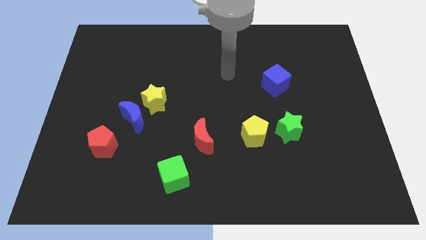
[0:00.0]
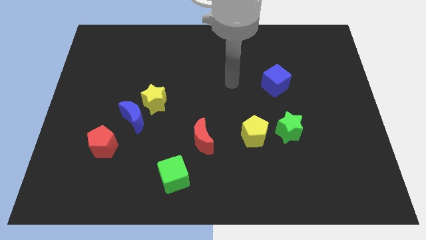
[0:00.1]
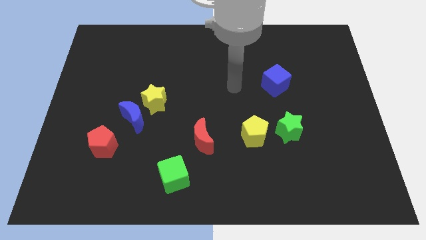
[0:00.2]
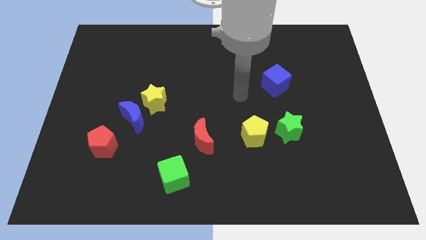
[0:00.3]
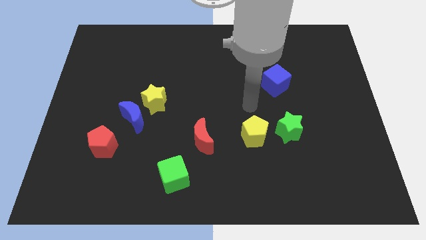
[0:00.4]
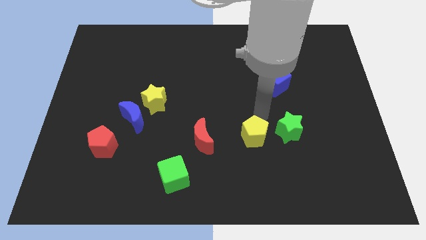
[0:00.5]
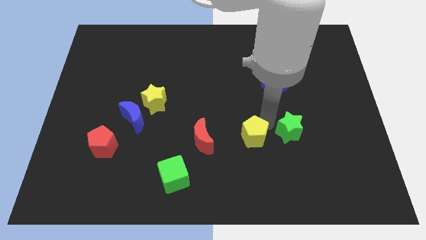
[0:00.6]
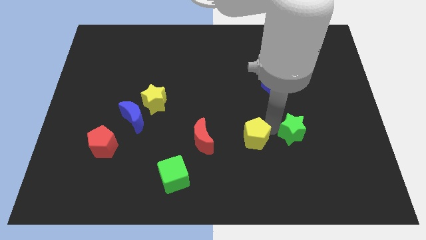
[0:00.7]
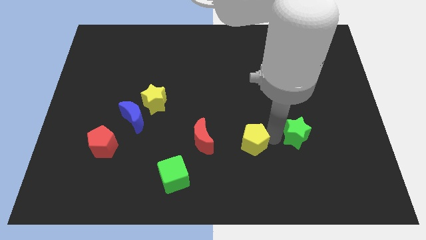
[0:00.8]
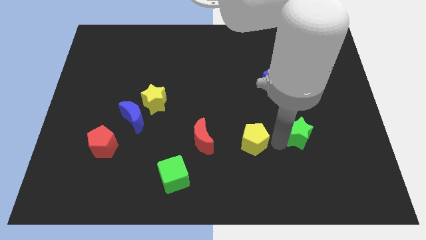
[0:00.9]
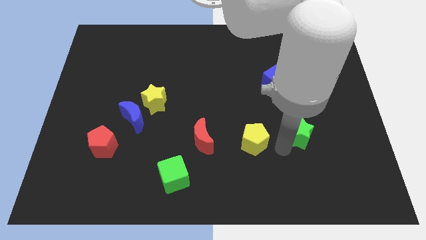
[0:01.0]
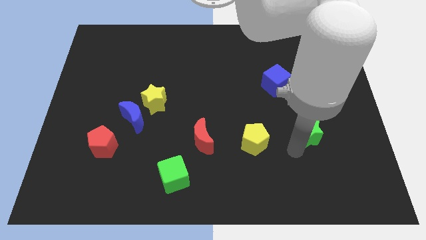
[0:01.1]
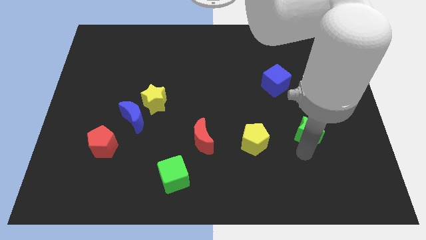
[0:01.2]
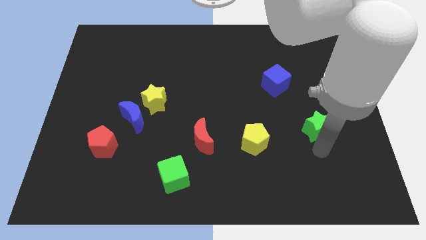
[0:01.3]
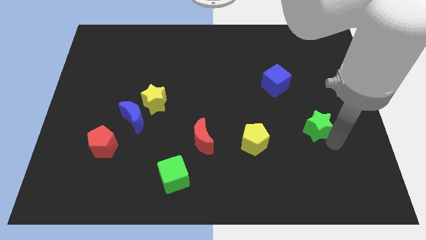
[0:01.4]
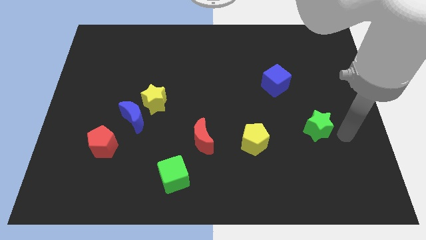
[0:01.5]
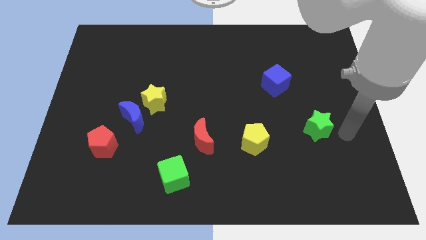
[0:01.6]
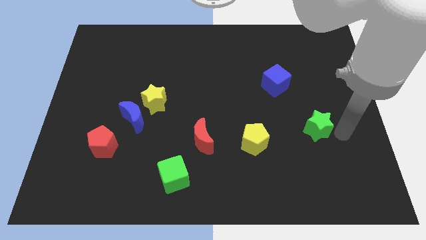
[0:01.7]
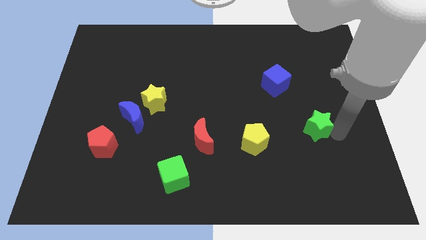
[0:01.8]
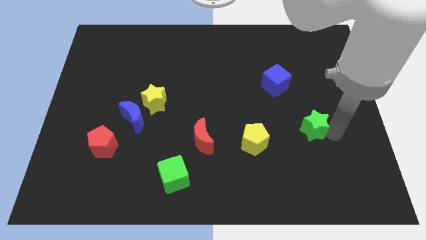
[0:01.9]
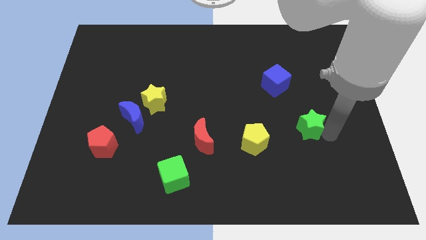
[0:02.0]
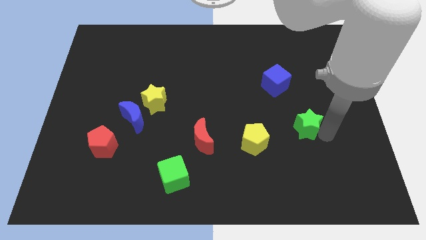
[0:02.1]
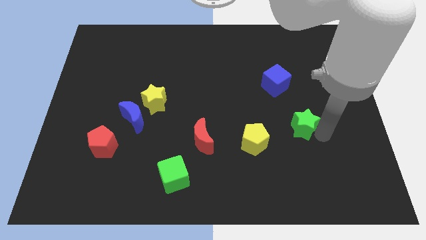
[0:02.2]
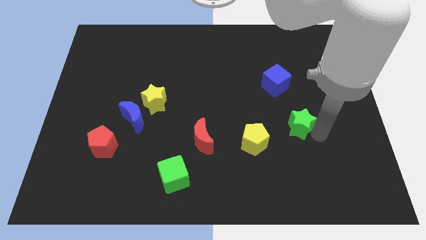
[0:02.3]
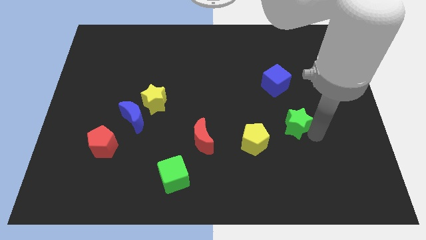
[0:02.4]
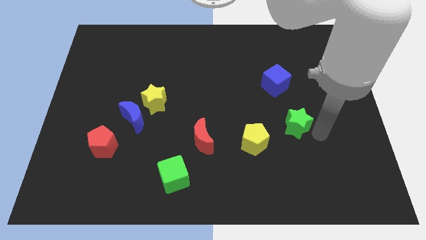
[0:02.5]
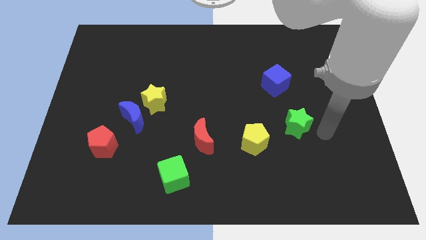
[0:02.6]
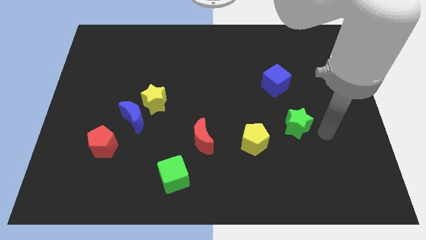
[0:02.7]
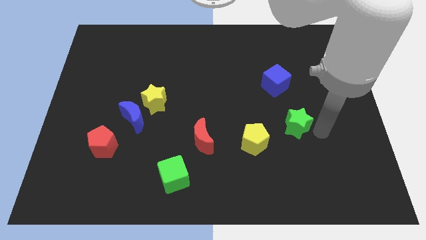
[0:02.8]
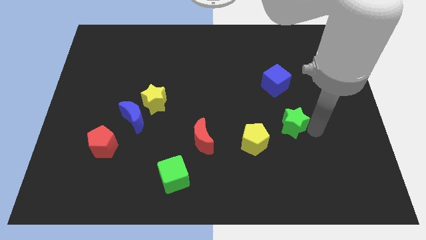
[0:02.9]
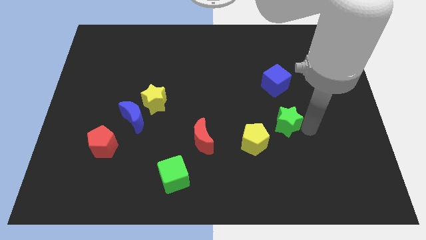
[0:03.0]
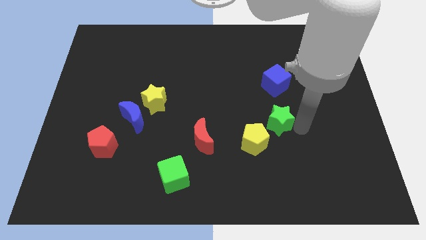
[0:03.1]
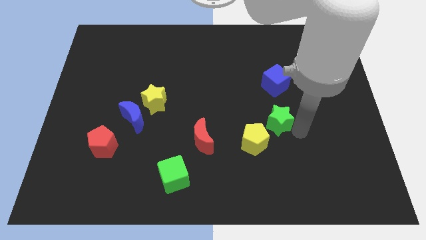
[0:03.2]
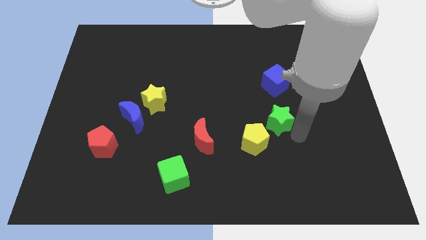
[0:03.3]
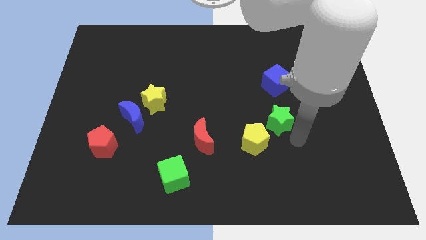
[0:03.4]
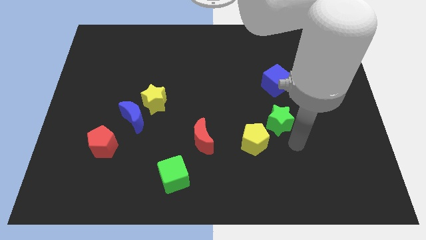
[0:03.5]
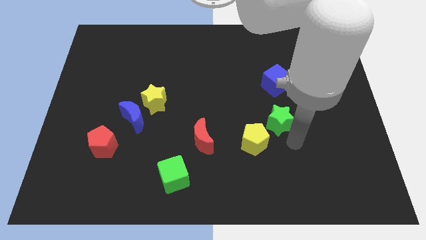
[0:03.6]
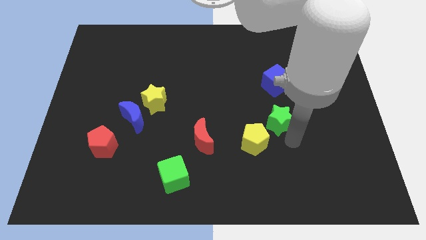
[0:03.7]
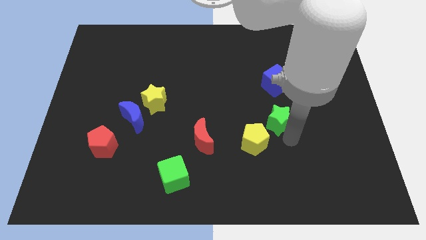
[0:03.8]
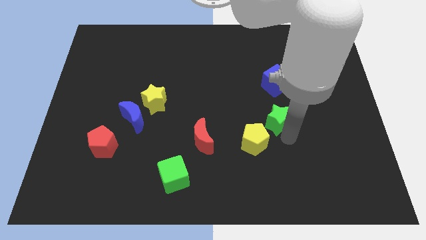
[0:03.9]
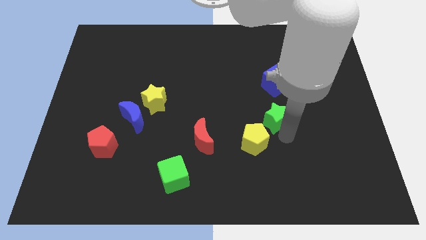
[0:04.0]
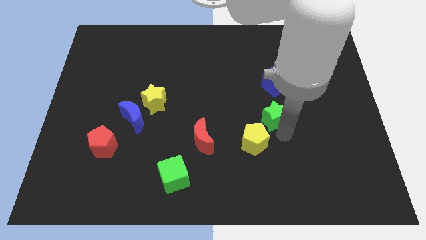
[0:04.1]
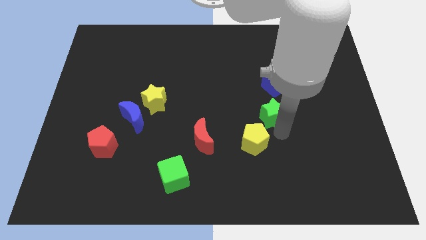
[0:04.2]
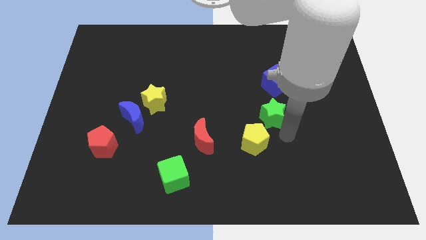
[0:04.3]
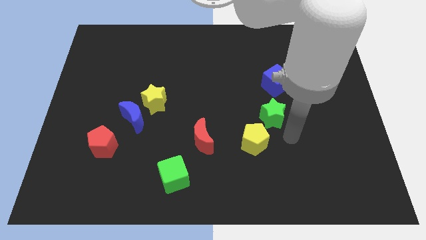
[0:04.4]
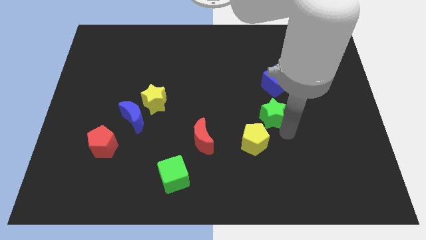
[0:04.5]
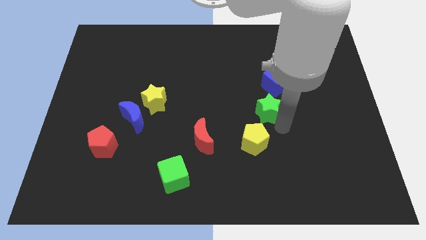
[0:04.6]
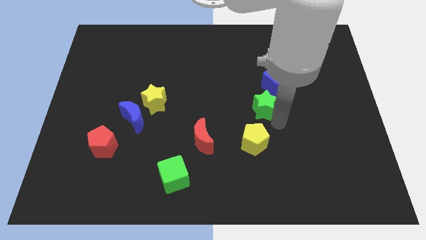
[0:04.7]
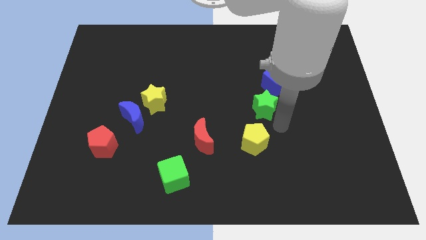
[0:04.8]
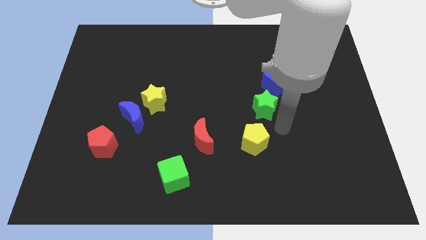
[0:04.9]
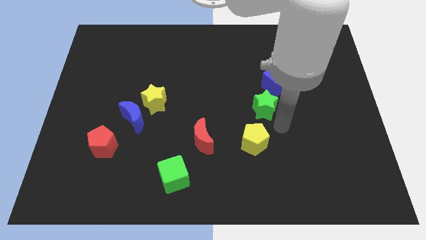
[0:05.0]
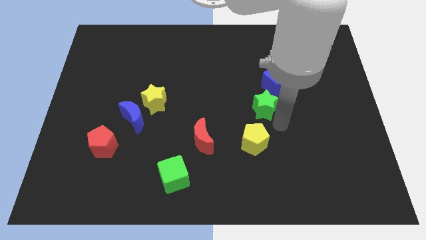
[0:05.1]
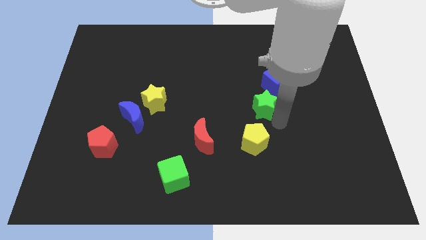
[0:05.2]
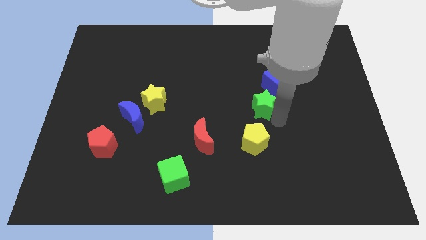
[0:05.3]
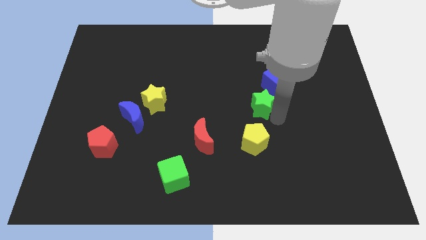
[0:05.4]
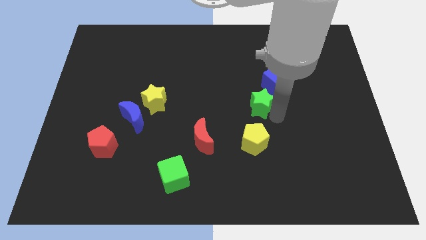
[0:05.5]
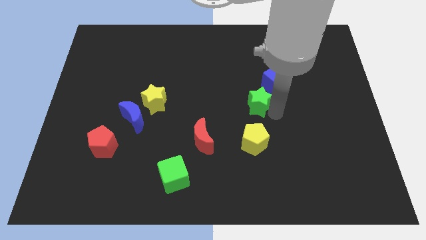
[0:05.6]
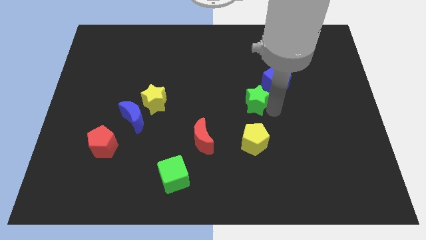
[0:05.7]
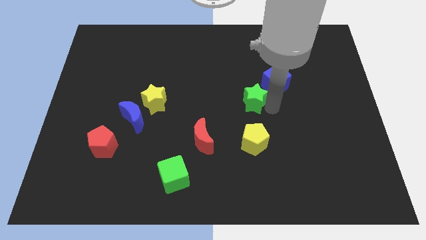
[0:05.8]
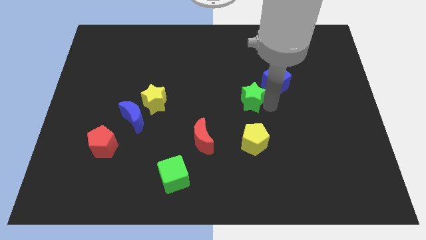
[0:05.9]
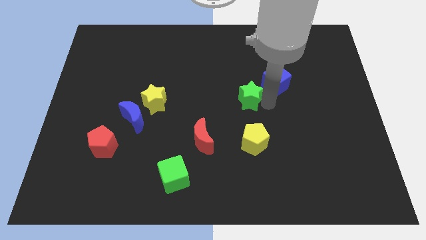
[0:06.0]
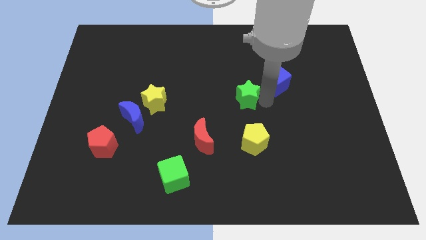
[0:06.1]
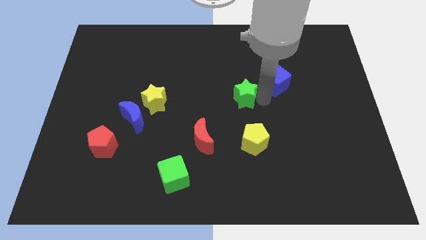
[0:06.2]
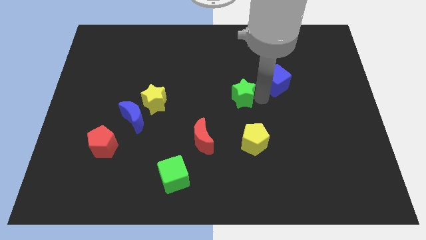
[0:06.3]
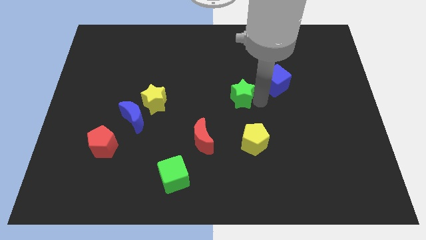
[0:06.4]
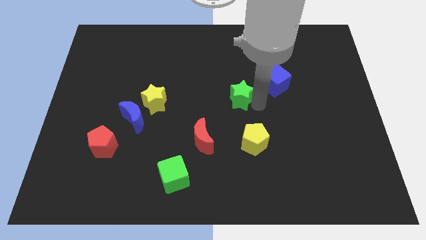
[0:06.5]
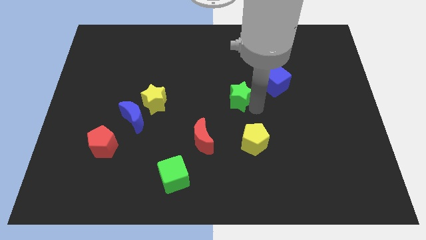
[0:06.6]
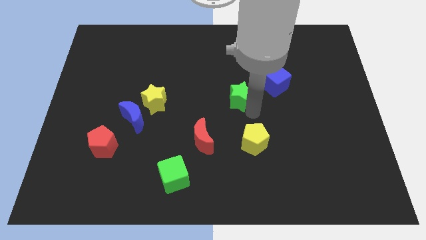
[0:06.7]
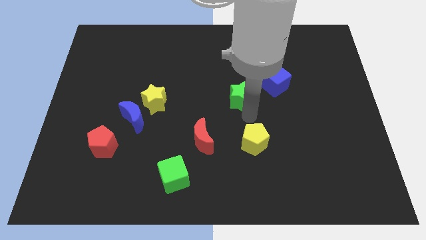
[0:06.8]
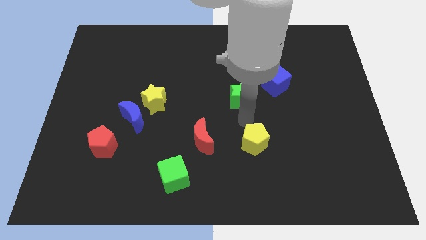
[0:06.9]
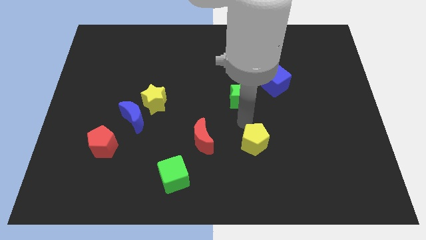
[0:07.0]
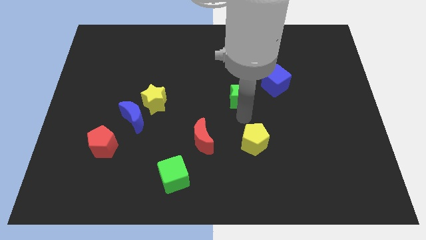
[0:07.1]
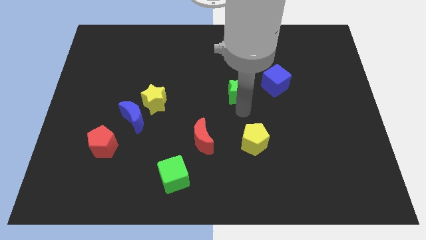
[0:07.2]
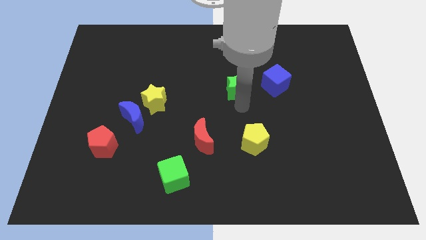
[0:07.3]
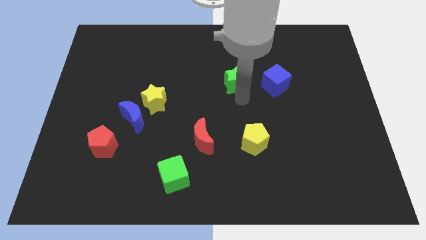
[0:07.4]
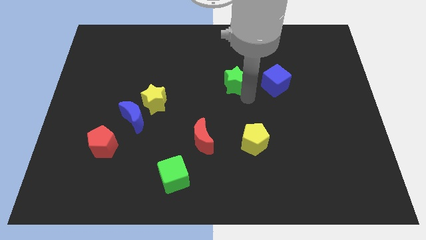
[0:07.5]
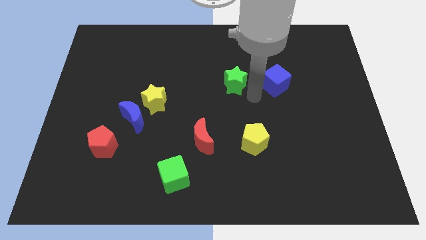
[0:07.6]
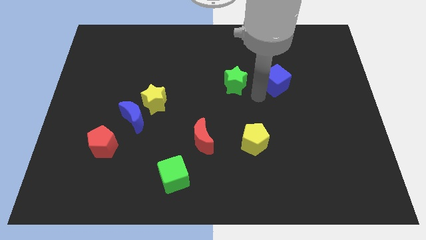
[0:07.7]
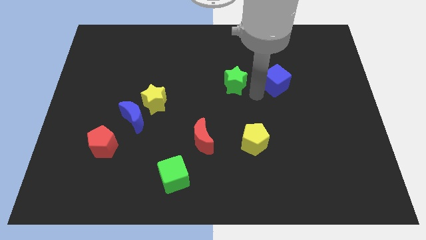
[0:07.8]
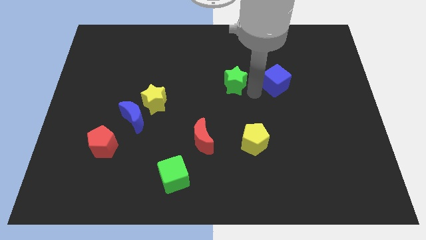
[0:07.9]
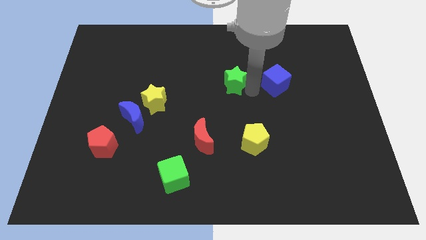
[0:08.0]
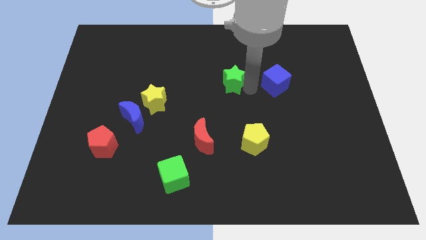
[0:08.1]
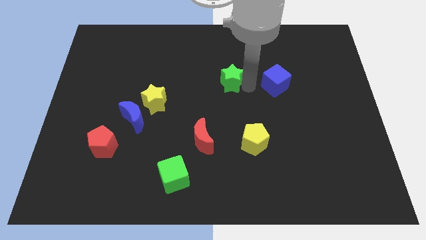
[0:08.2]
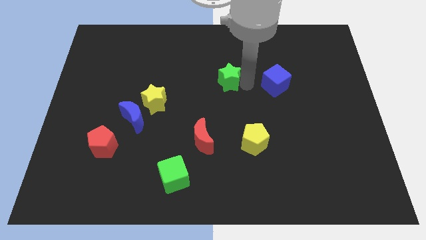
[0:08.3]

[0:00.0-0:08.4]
move the green star upwards and to the left diagonally
